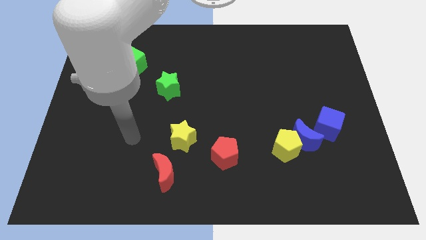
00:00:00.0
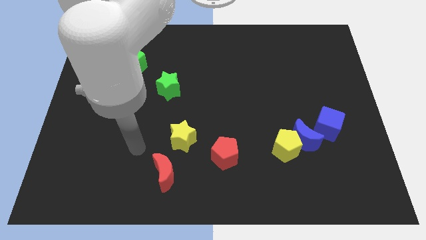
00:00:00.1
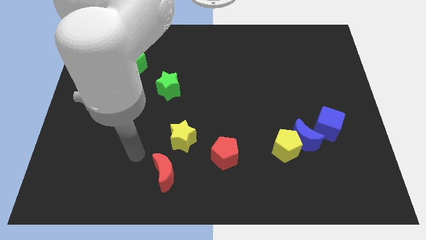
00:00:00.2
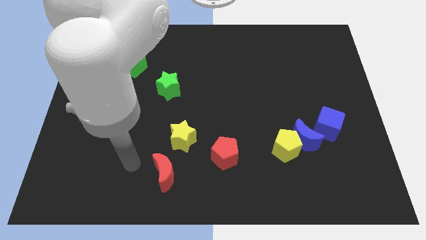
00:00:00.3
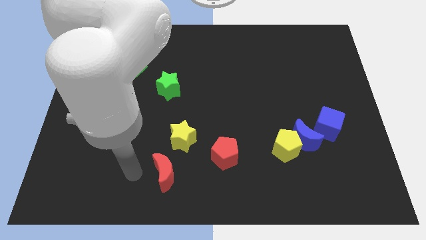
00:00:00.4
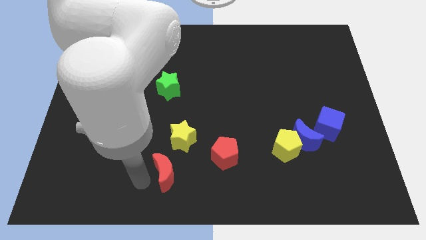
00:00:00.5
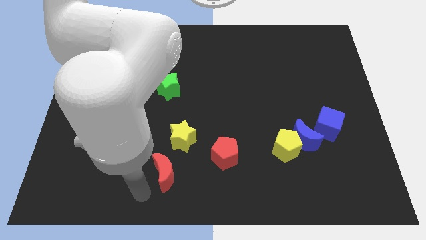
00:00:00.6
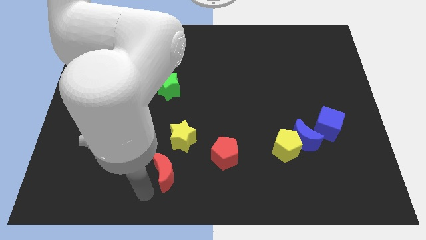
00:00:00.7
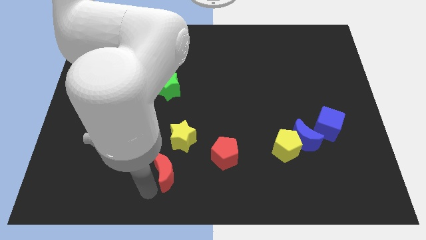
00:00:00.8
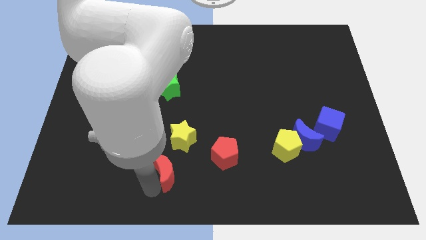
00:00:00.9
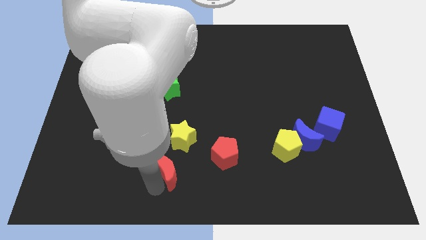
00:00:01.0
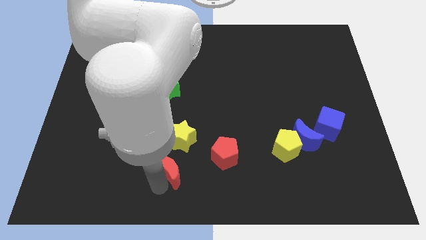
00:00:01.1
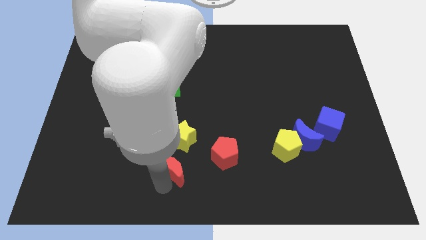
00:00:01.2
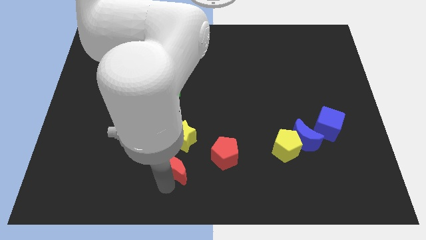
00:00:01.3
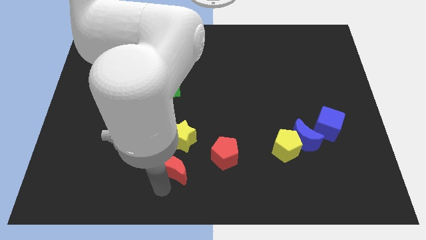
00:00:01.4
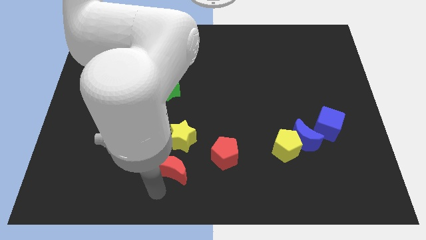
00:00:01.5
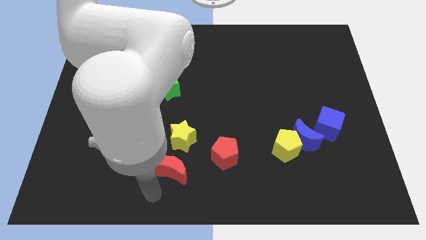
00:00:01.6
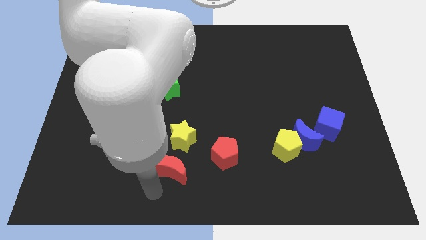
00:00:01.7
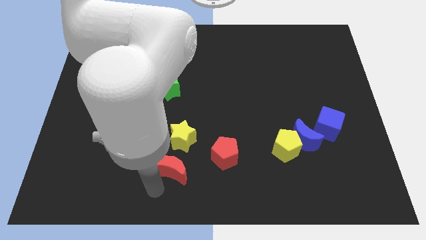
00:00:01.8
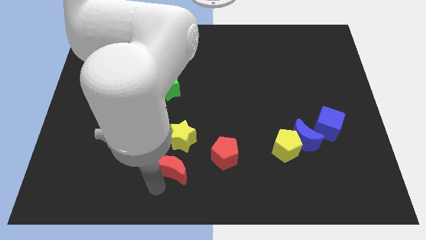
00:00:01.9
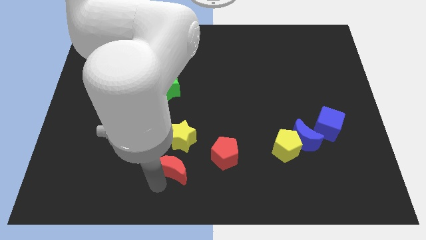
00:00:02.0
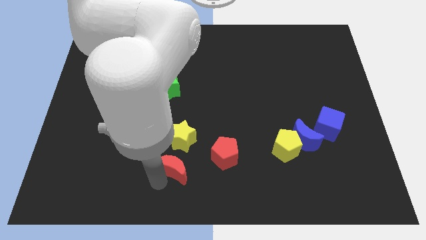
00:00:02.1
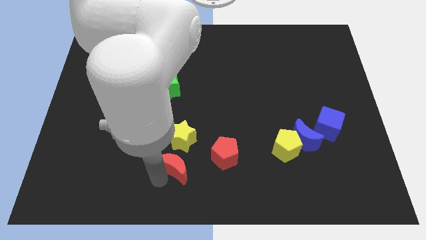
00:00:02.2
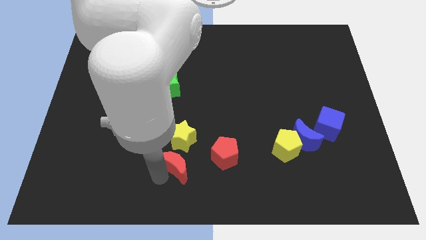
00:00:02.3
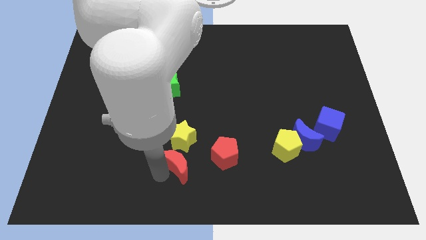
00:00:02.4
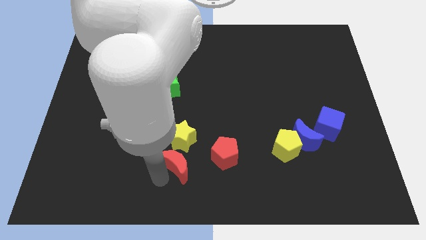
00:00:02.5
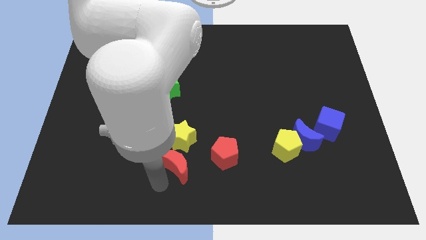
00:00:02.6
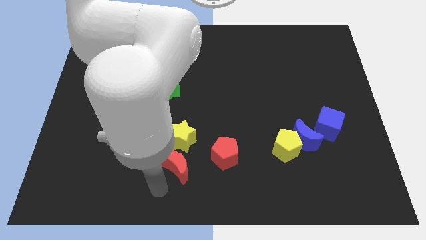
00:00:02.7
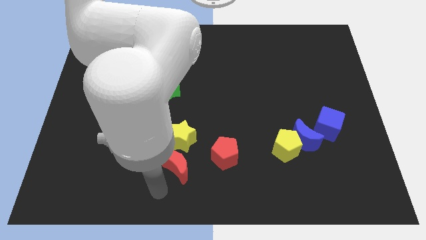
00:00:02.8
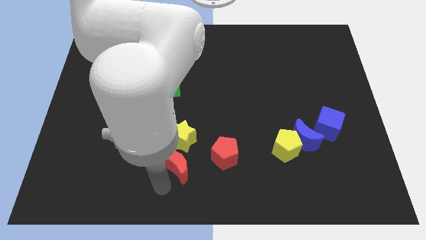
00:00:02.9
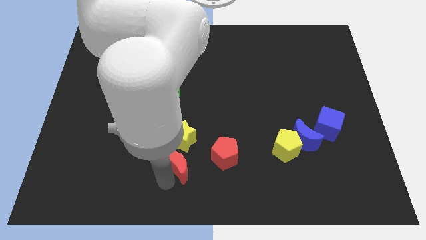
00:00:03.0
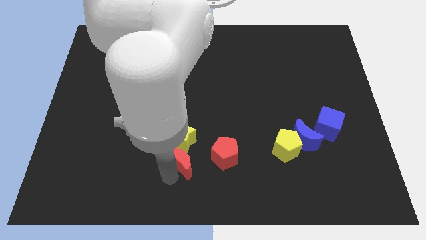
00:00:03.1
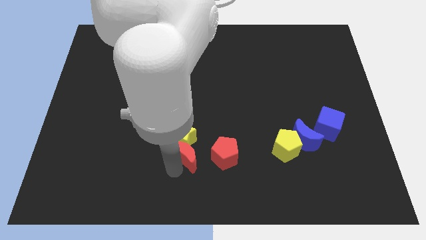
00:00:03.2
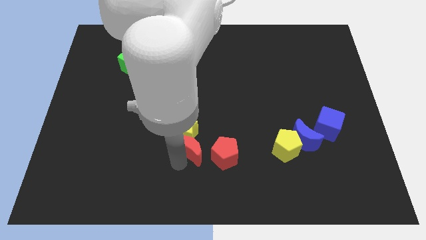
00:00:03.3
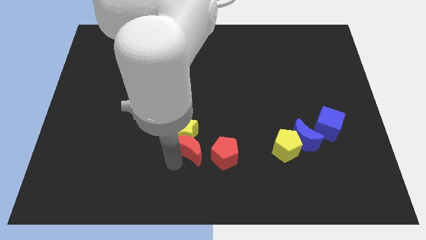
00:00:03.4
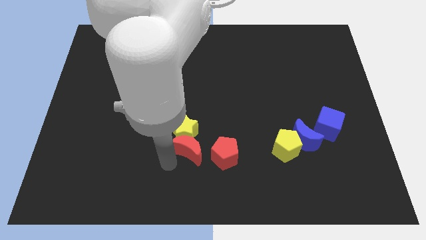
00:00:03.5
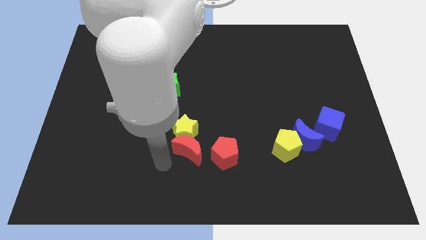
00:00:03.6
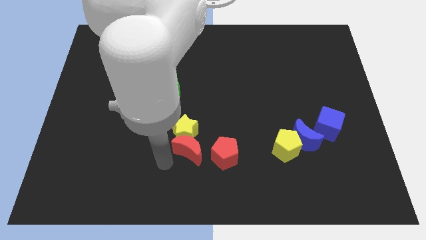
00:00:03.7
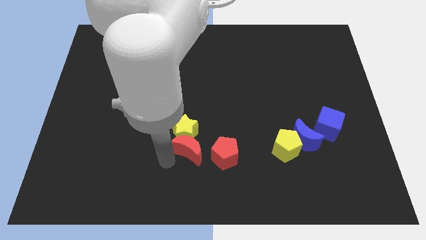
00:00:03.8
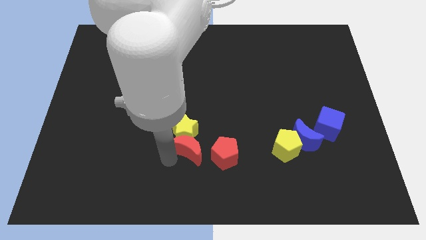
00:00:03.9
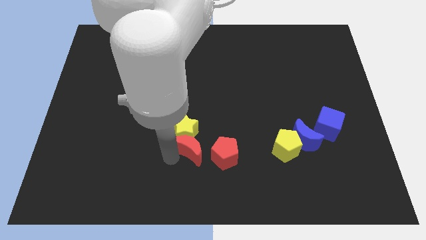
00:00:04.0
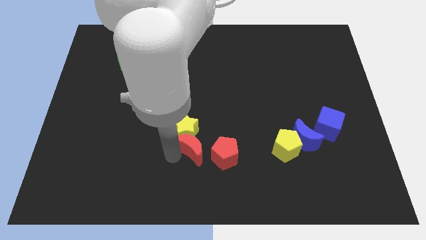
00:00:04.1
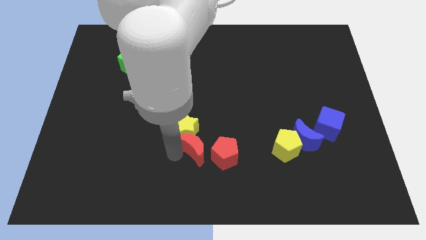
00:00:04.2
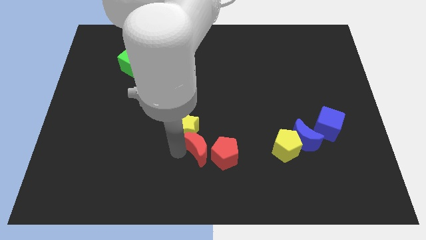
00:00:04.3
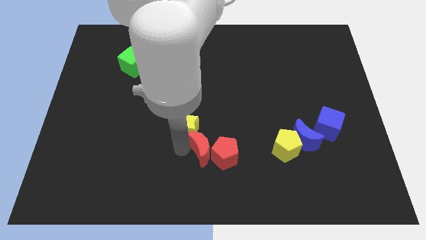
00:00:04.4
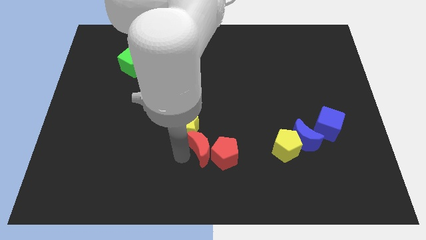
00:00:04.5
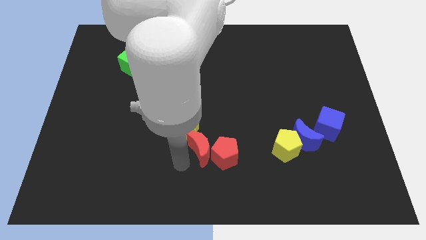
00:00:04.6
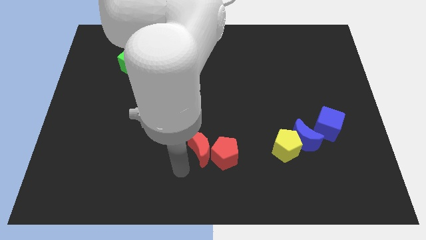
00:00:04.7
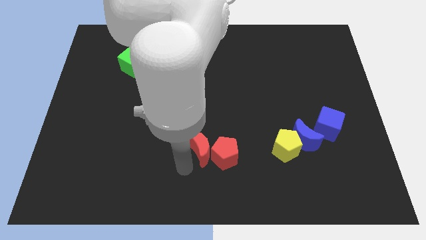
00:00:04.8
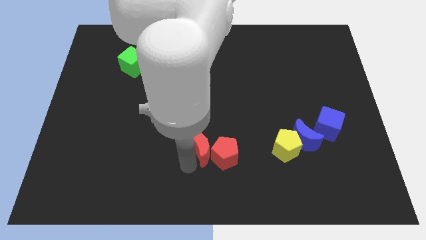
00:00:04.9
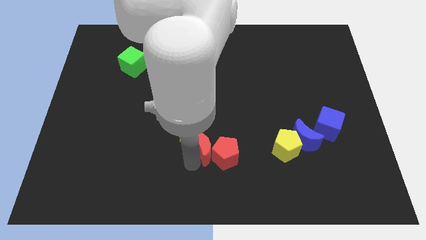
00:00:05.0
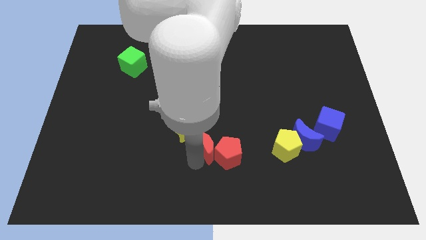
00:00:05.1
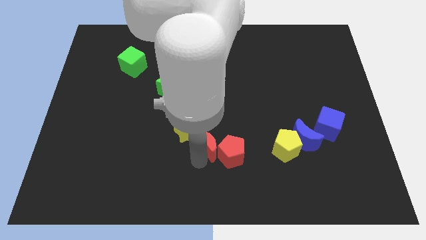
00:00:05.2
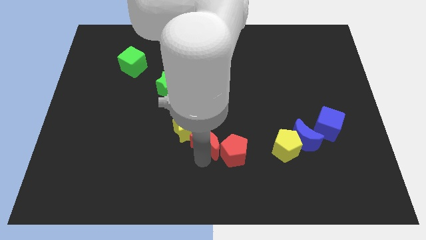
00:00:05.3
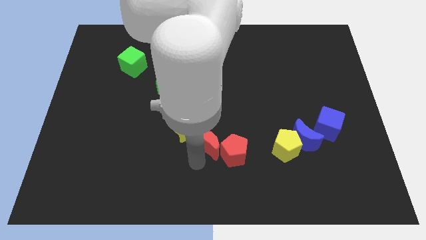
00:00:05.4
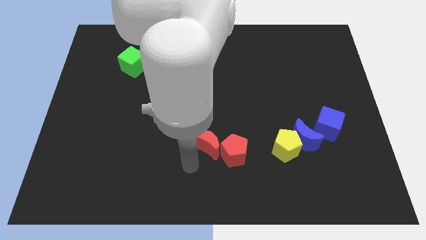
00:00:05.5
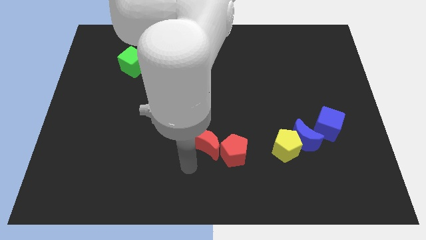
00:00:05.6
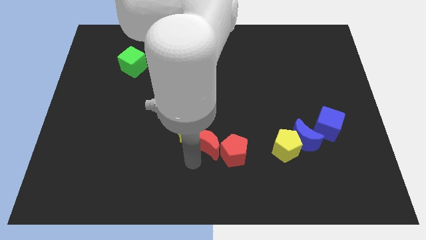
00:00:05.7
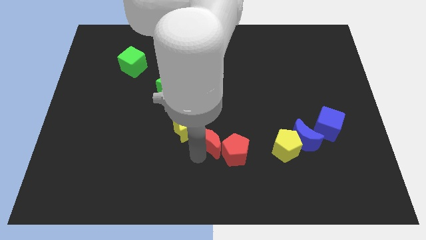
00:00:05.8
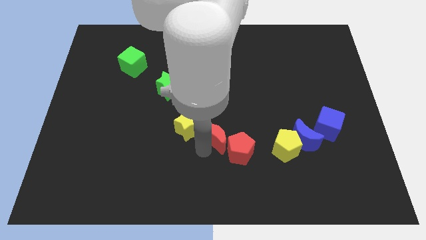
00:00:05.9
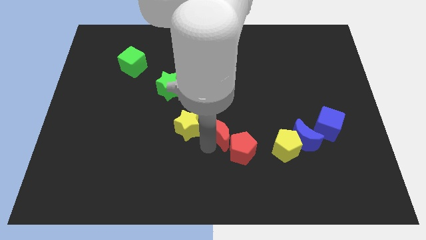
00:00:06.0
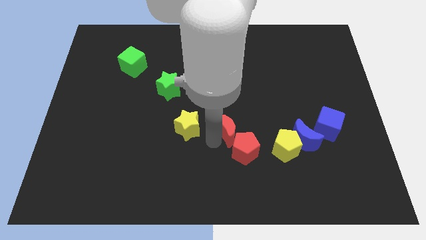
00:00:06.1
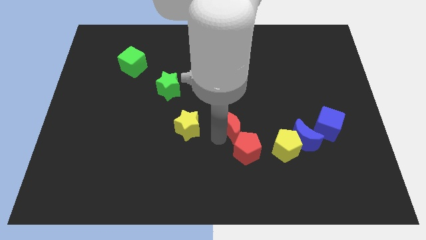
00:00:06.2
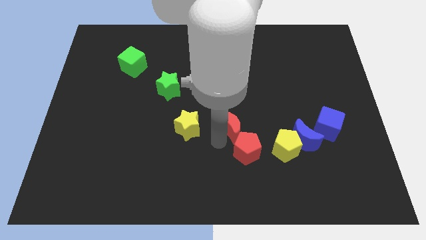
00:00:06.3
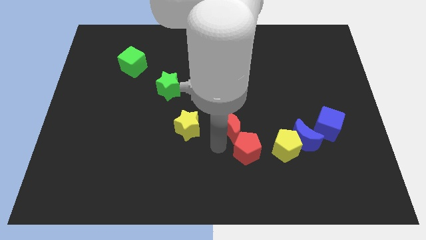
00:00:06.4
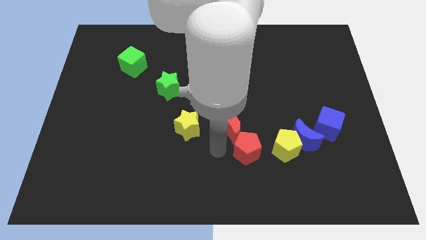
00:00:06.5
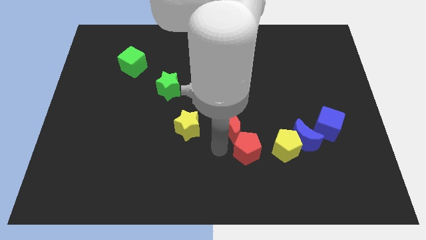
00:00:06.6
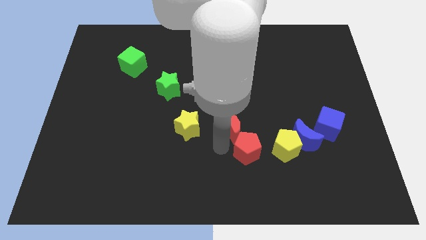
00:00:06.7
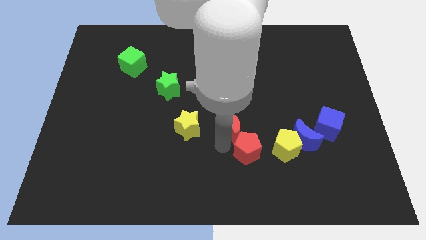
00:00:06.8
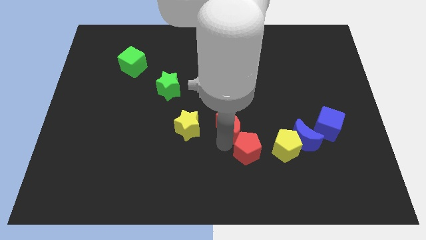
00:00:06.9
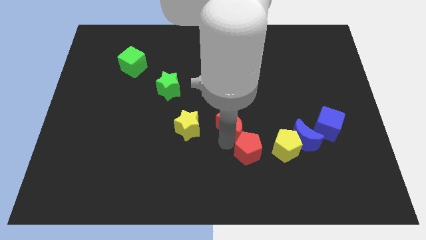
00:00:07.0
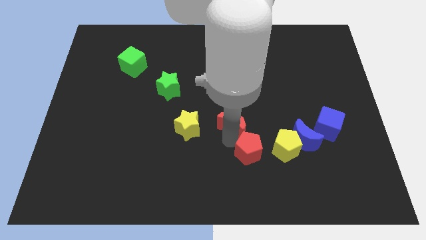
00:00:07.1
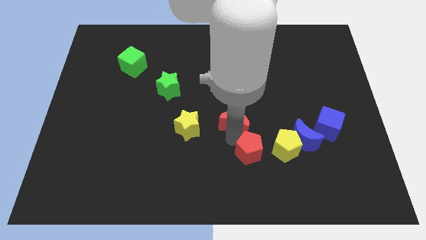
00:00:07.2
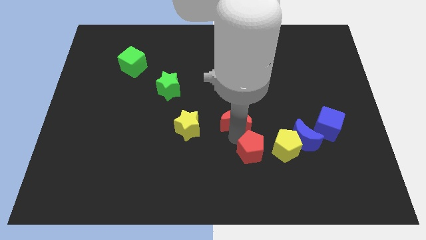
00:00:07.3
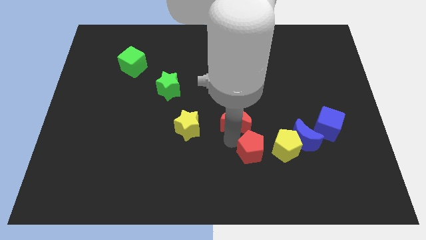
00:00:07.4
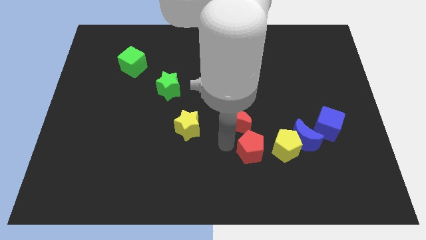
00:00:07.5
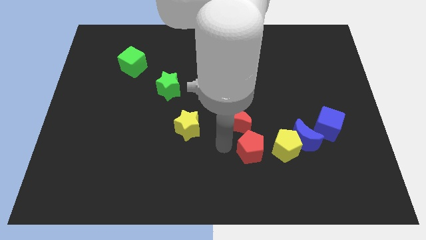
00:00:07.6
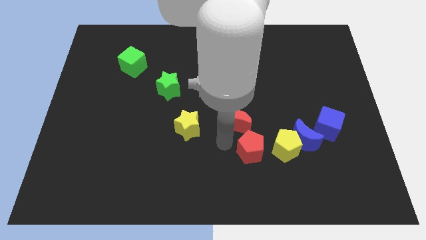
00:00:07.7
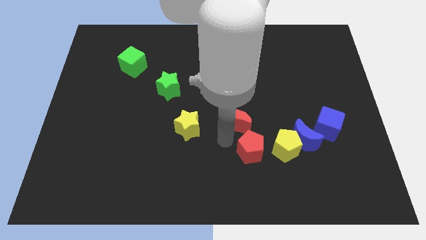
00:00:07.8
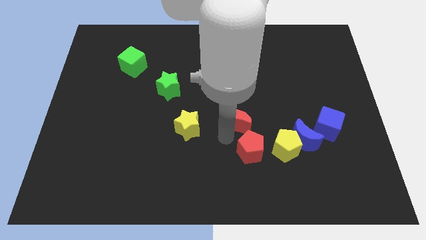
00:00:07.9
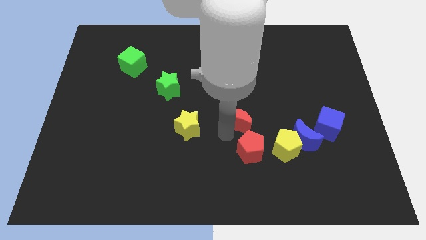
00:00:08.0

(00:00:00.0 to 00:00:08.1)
push the red moon up and to the right diagonally
